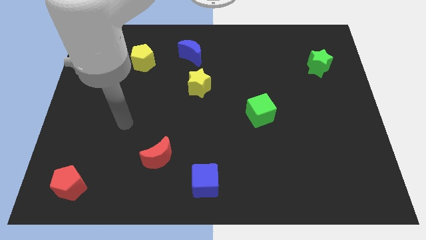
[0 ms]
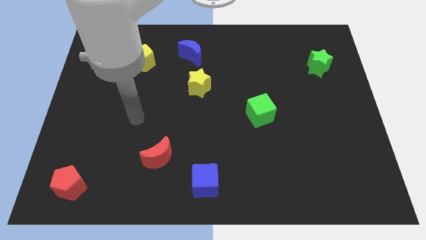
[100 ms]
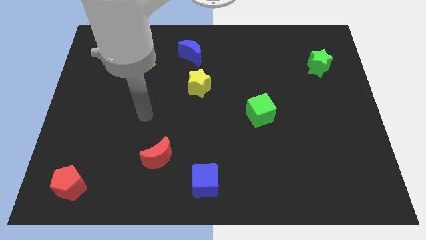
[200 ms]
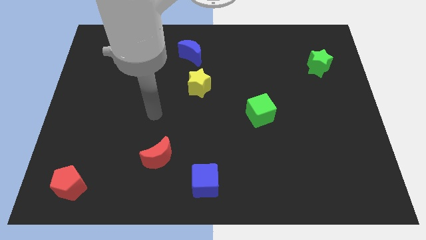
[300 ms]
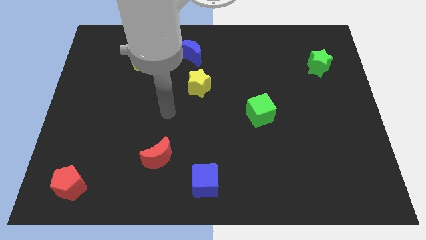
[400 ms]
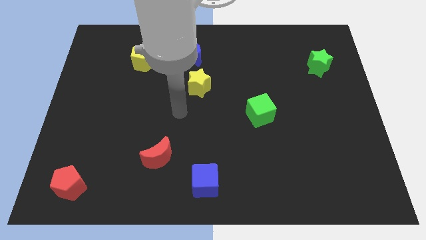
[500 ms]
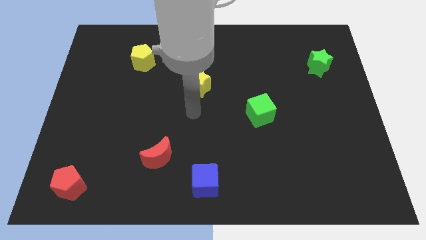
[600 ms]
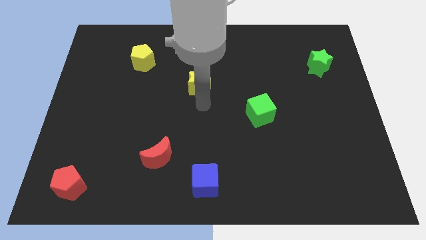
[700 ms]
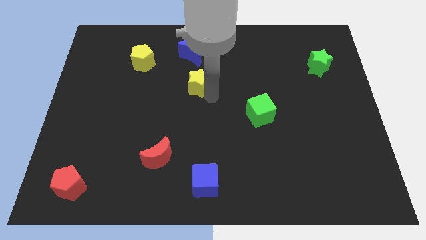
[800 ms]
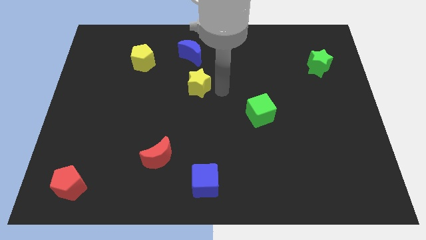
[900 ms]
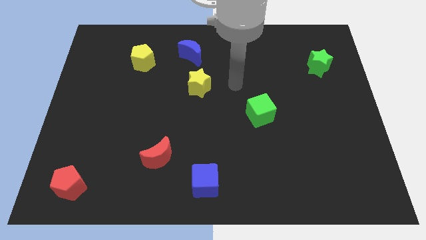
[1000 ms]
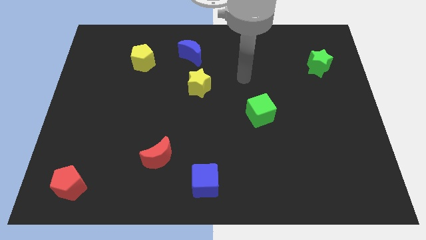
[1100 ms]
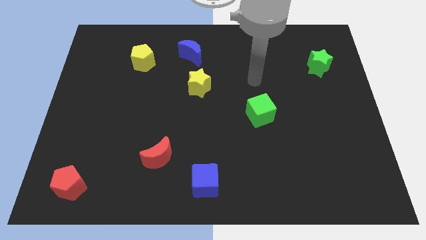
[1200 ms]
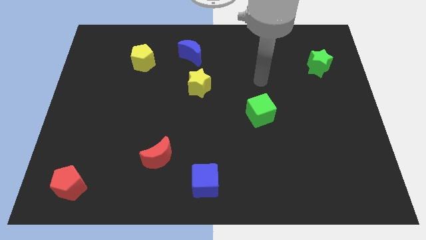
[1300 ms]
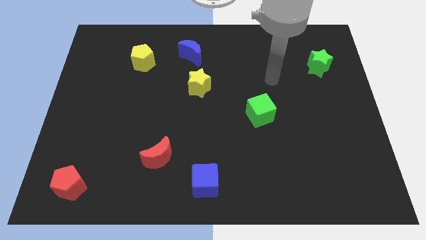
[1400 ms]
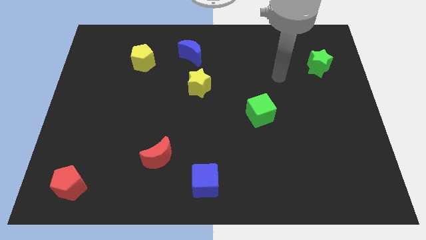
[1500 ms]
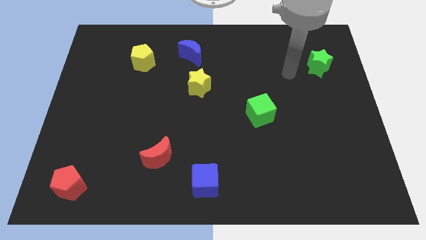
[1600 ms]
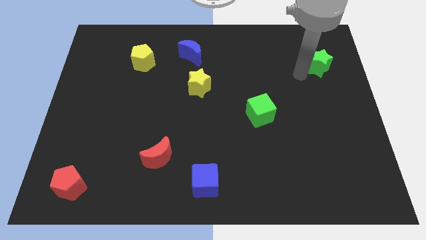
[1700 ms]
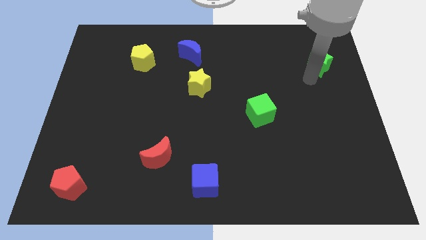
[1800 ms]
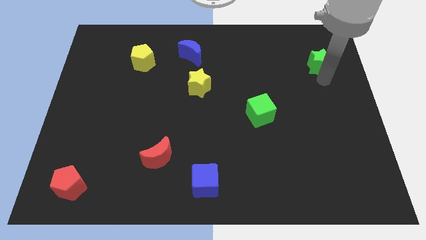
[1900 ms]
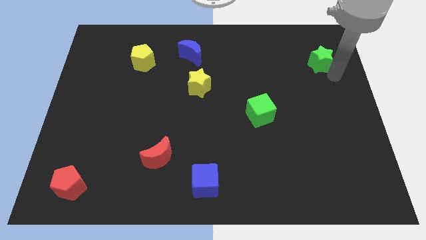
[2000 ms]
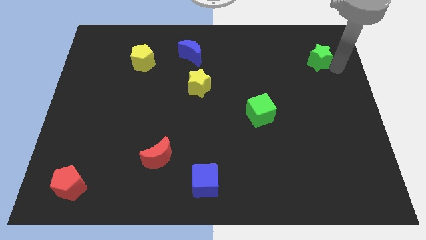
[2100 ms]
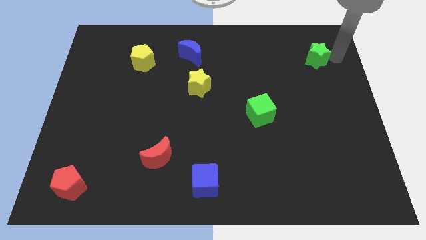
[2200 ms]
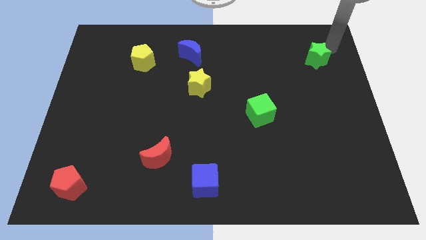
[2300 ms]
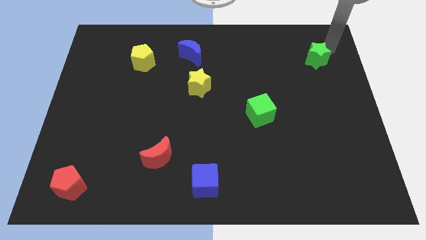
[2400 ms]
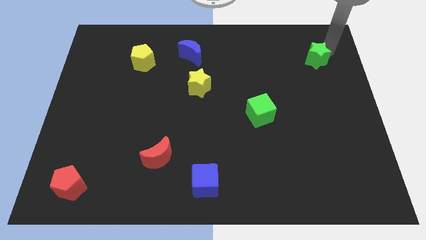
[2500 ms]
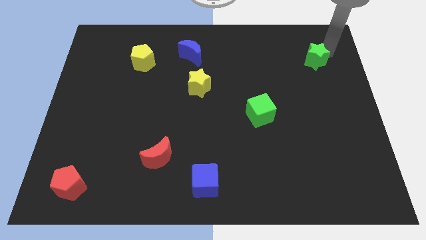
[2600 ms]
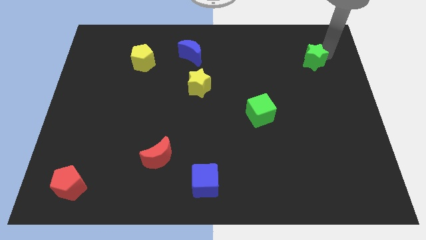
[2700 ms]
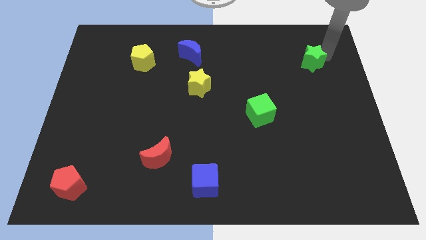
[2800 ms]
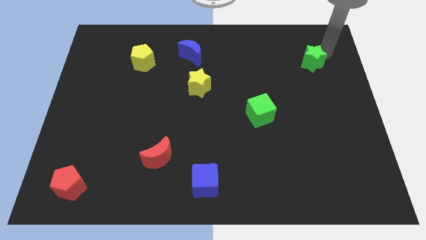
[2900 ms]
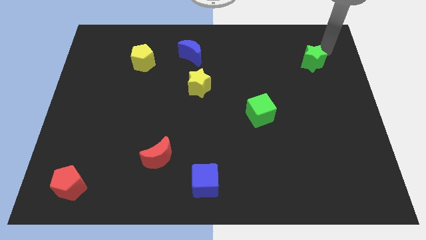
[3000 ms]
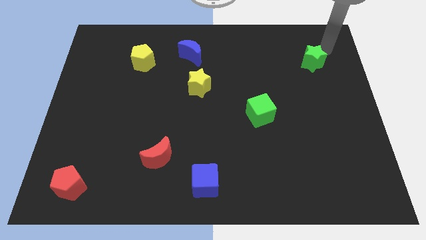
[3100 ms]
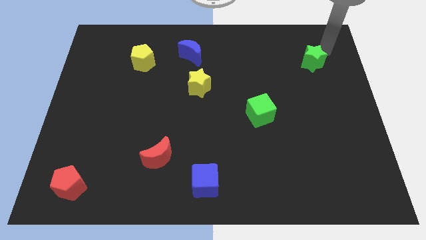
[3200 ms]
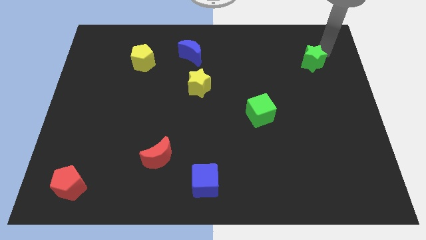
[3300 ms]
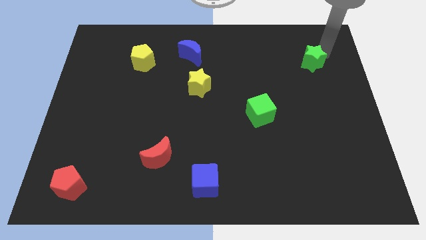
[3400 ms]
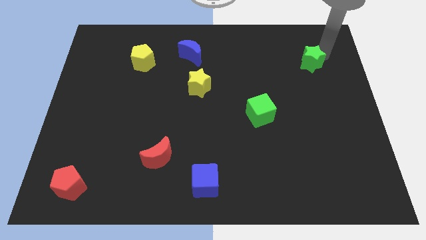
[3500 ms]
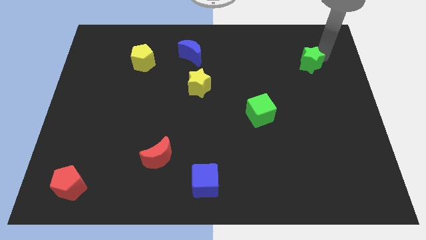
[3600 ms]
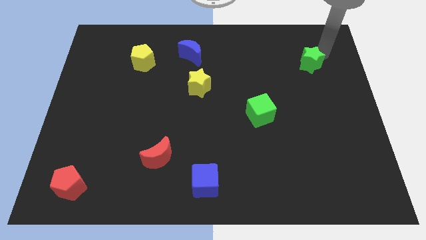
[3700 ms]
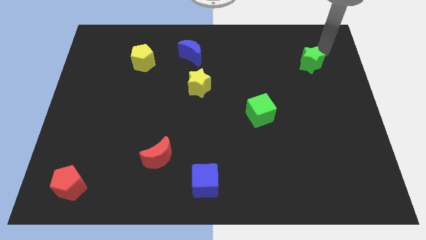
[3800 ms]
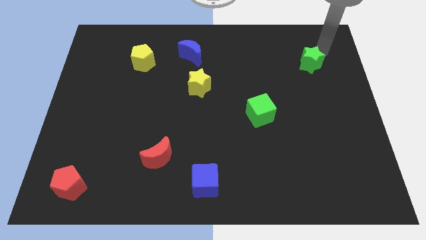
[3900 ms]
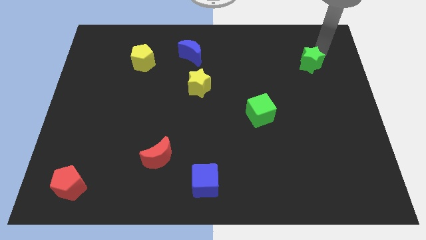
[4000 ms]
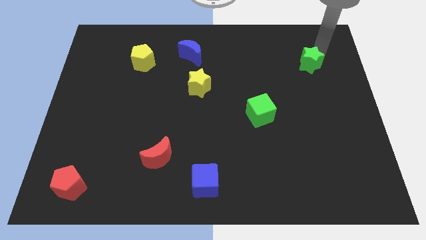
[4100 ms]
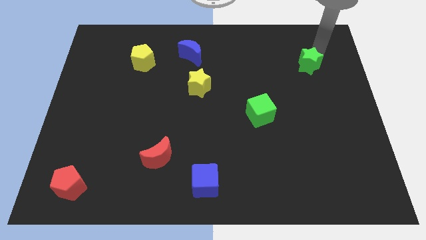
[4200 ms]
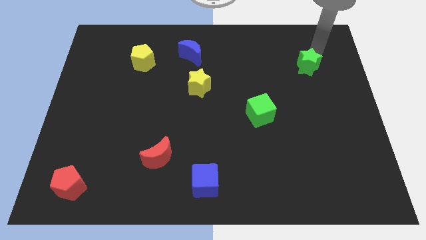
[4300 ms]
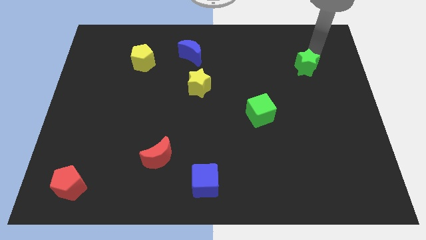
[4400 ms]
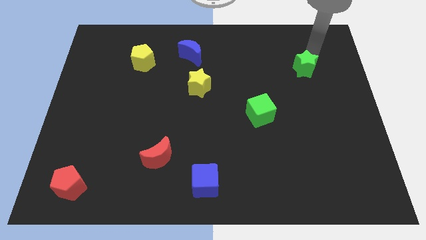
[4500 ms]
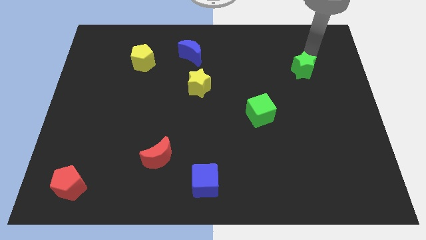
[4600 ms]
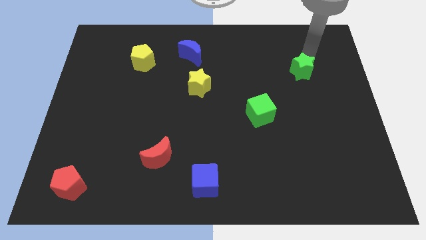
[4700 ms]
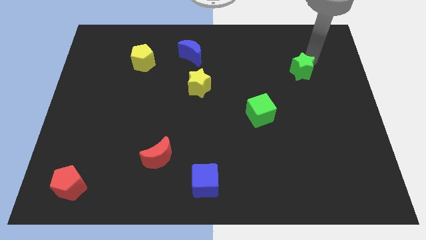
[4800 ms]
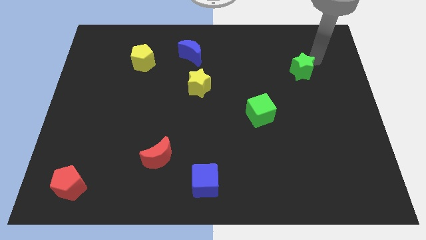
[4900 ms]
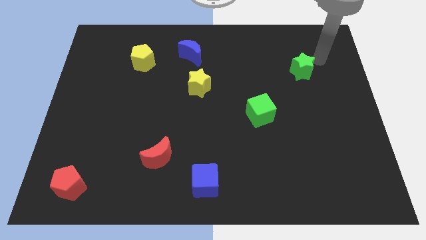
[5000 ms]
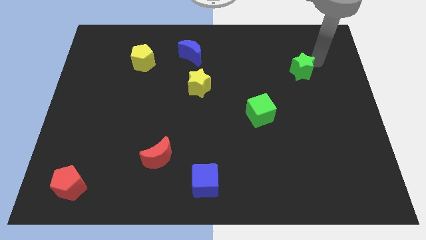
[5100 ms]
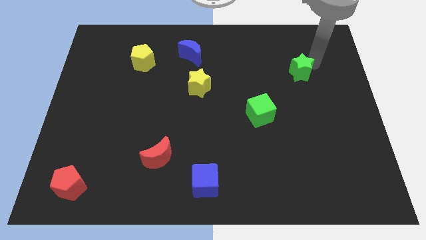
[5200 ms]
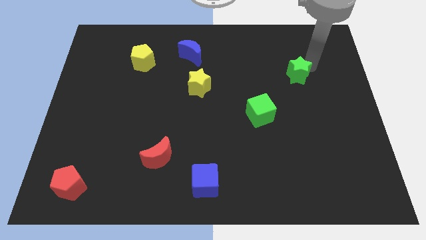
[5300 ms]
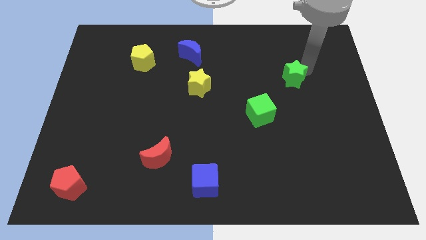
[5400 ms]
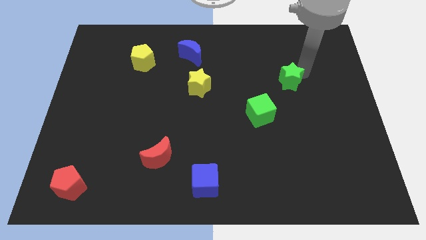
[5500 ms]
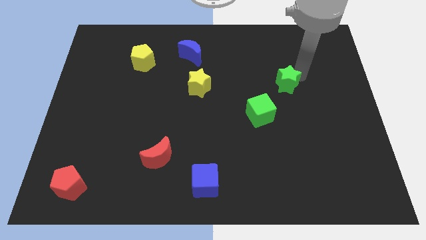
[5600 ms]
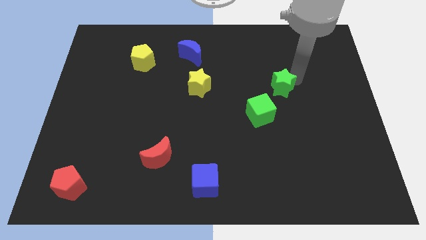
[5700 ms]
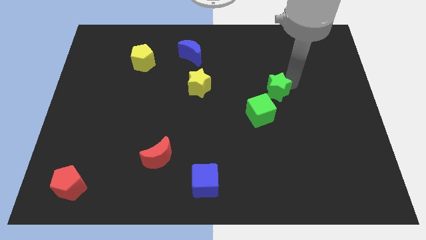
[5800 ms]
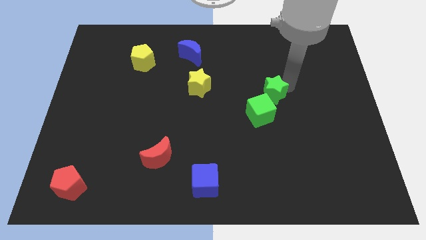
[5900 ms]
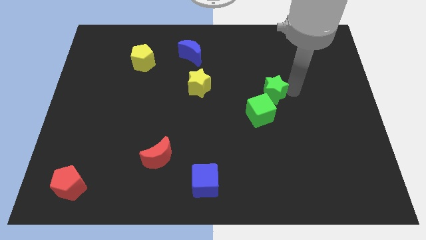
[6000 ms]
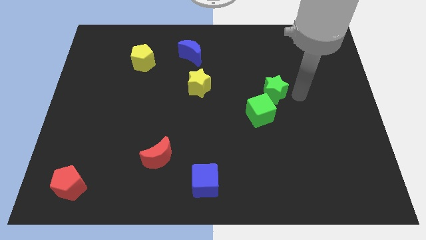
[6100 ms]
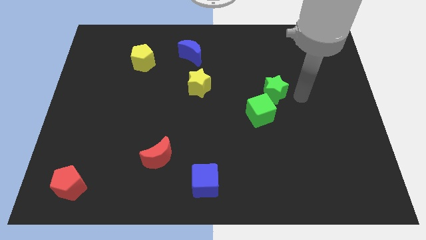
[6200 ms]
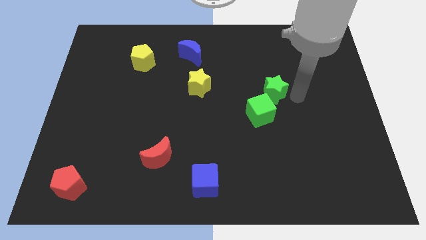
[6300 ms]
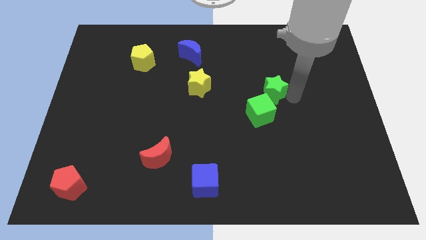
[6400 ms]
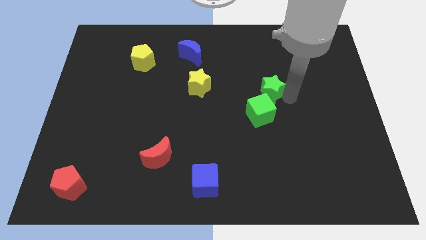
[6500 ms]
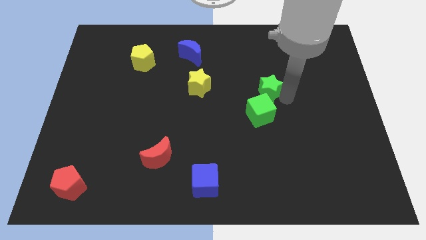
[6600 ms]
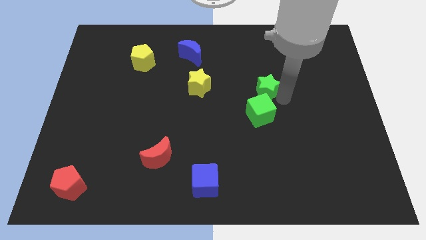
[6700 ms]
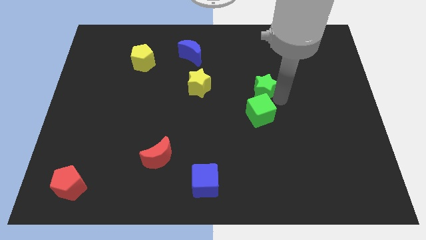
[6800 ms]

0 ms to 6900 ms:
move the green star to the center of the board
